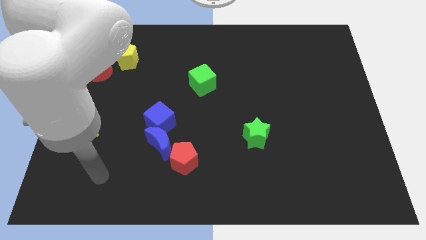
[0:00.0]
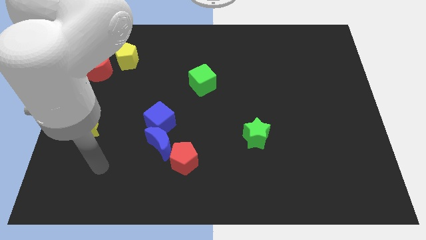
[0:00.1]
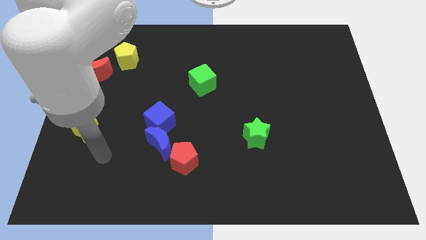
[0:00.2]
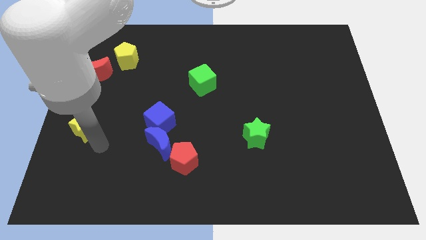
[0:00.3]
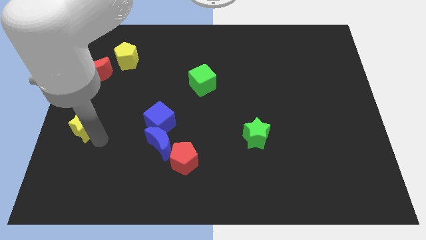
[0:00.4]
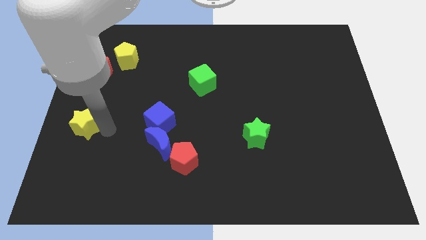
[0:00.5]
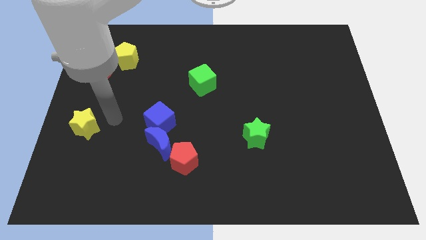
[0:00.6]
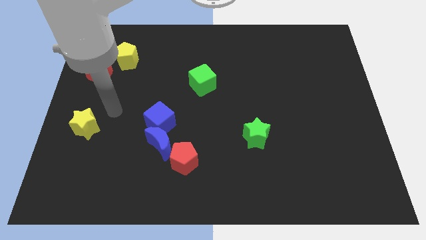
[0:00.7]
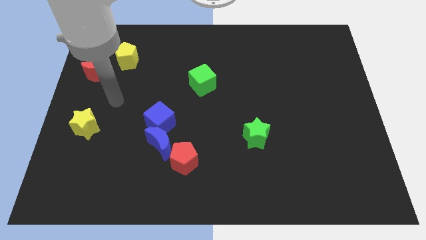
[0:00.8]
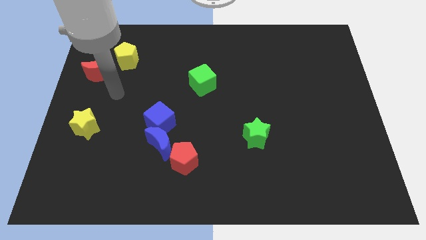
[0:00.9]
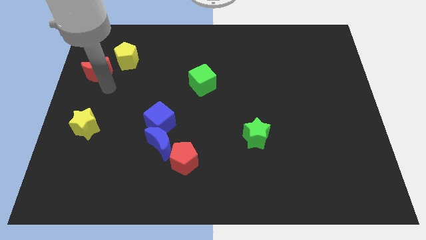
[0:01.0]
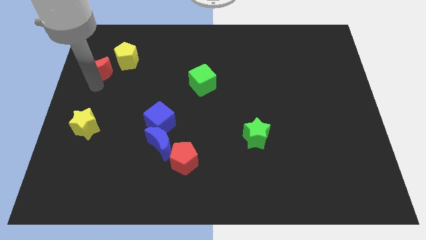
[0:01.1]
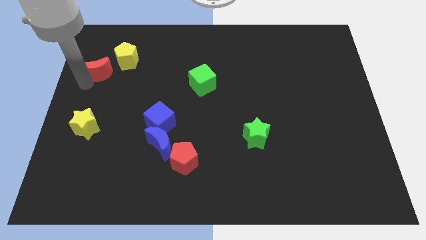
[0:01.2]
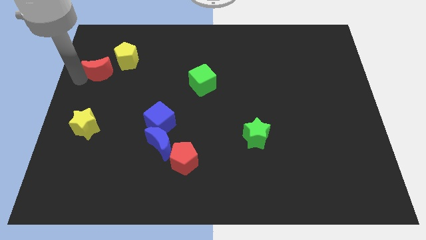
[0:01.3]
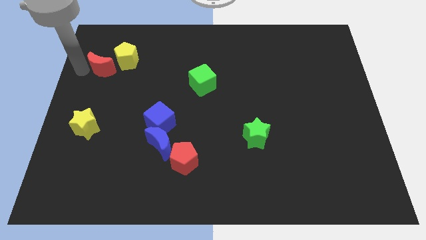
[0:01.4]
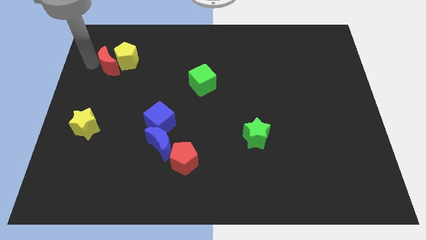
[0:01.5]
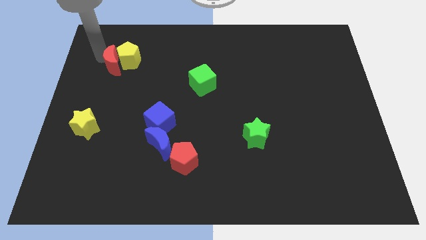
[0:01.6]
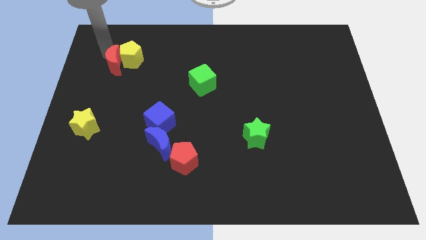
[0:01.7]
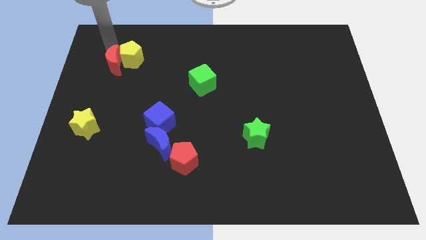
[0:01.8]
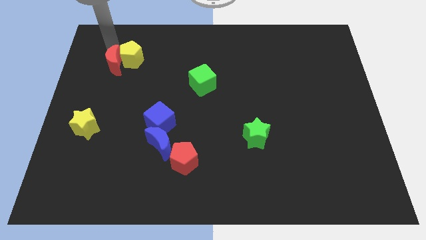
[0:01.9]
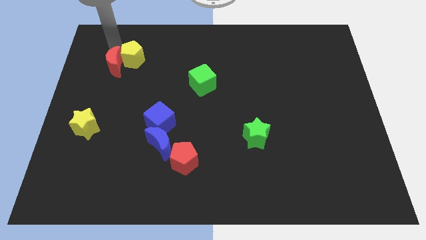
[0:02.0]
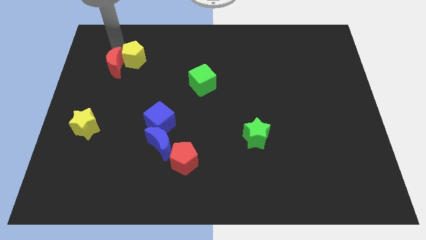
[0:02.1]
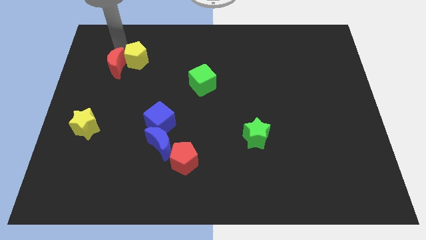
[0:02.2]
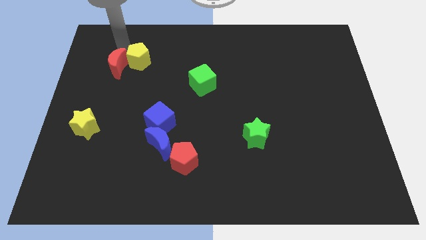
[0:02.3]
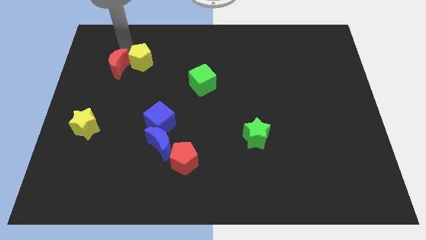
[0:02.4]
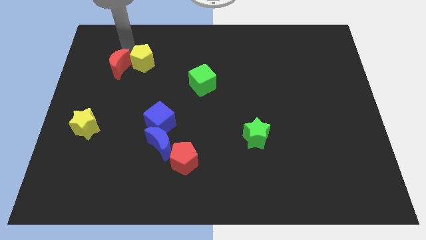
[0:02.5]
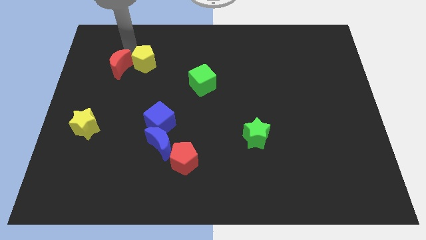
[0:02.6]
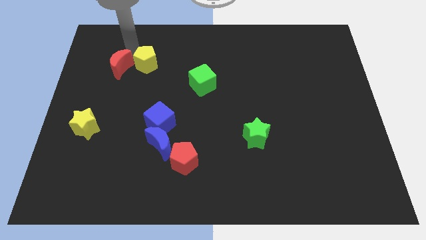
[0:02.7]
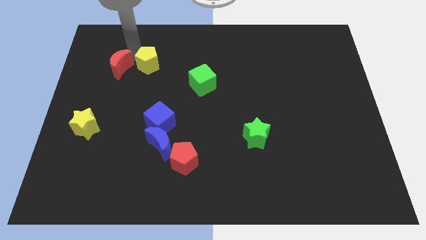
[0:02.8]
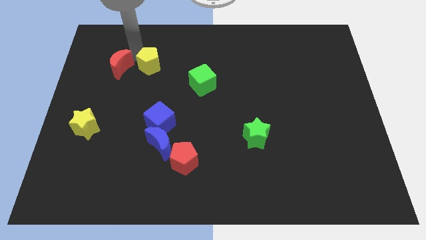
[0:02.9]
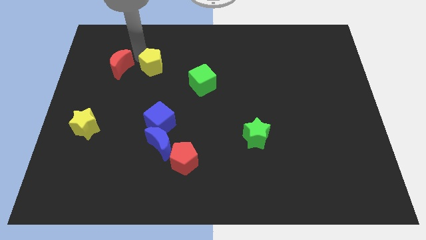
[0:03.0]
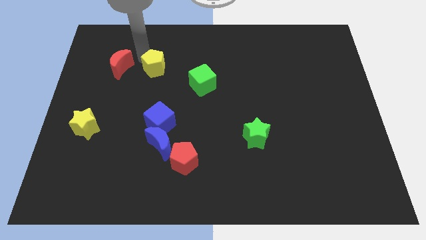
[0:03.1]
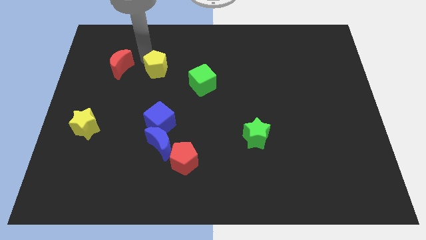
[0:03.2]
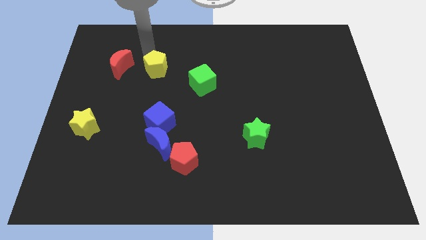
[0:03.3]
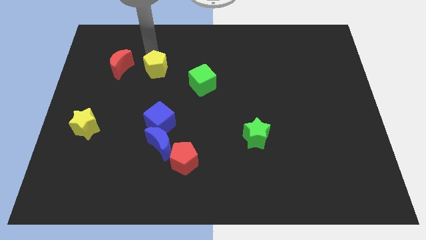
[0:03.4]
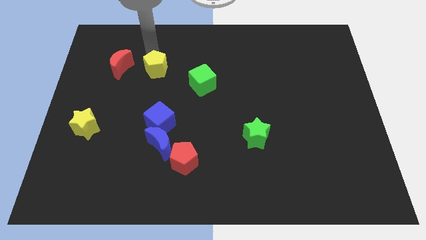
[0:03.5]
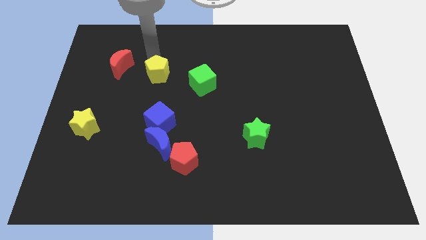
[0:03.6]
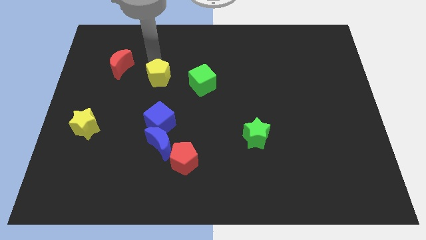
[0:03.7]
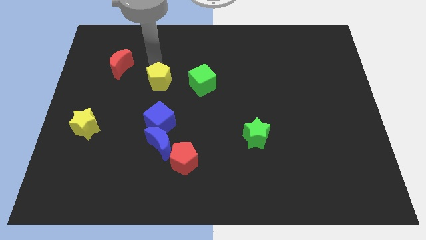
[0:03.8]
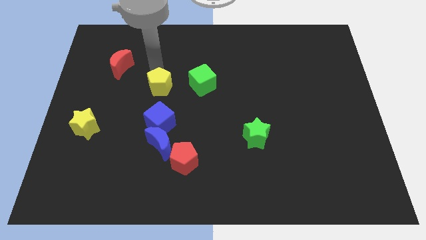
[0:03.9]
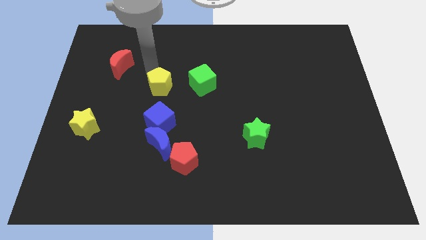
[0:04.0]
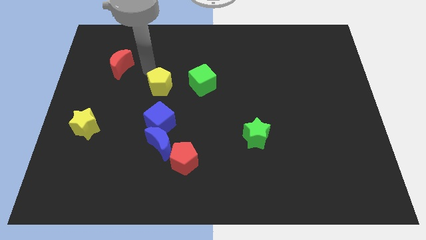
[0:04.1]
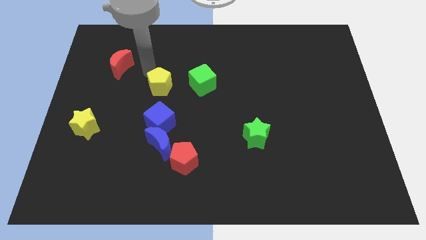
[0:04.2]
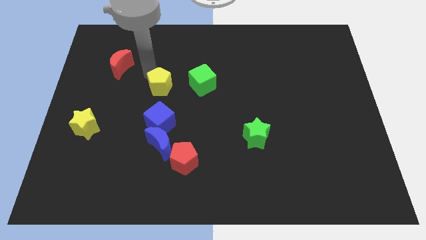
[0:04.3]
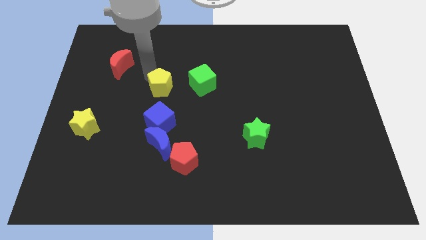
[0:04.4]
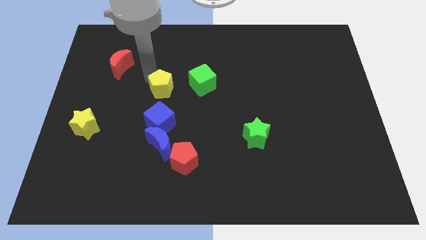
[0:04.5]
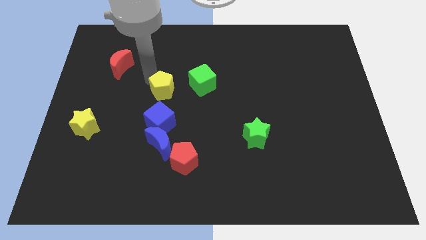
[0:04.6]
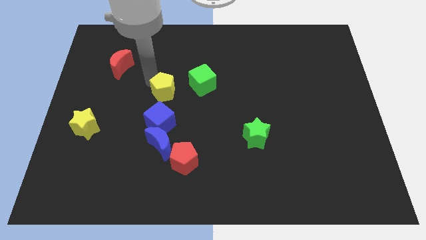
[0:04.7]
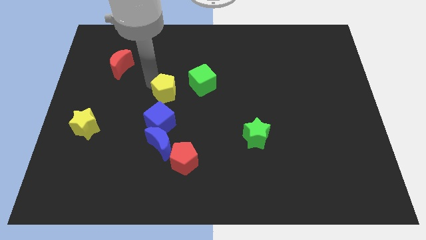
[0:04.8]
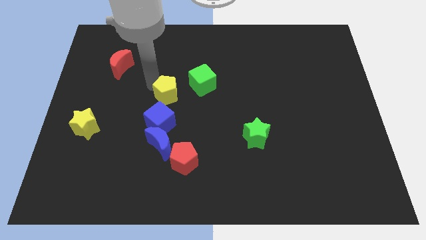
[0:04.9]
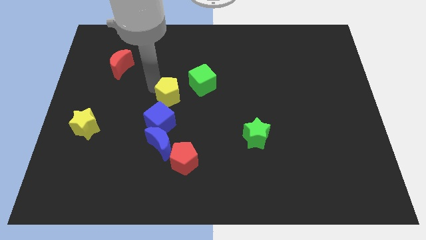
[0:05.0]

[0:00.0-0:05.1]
slide the yellow pentagon to the top right side of the blue cube

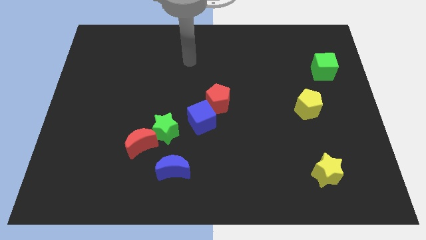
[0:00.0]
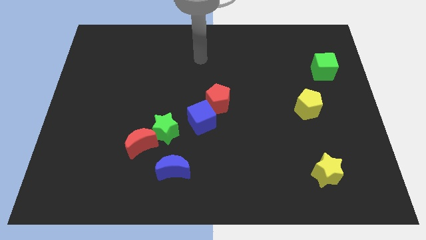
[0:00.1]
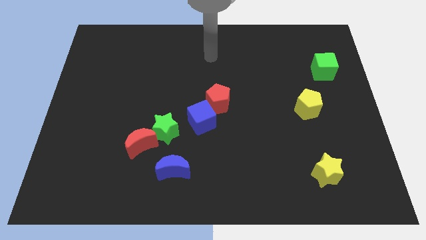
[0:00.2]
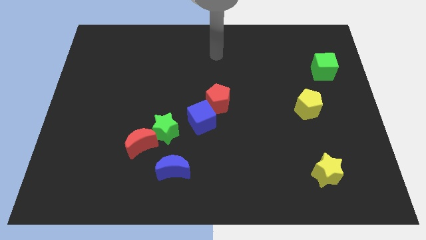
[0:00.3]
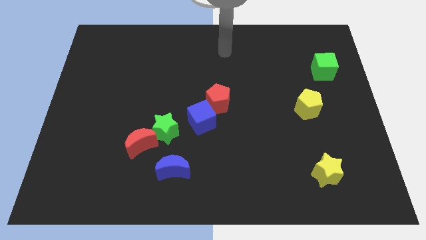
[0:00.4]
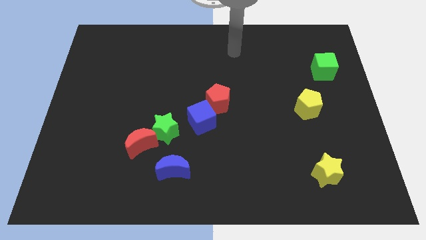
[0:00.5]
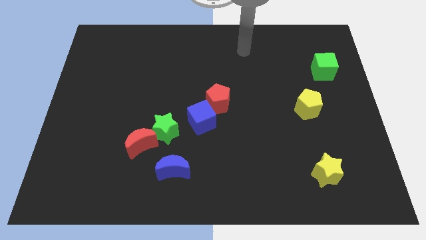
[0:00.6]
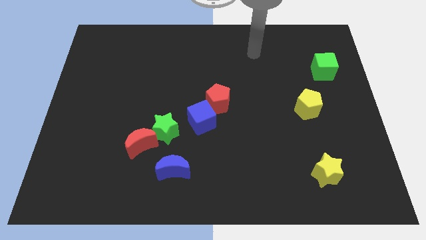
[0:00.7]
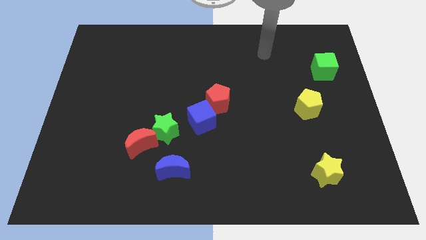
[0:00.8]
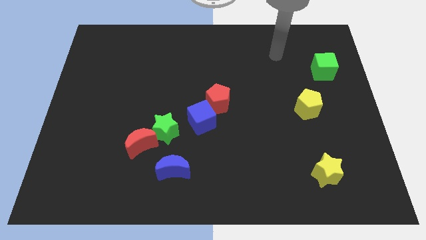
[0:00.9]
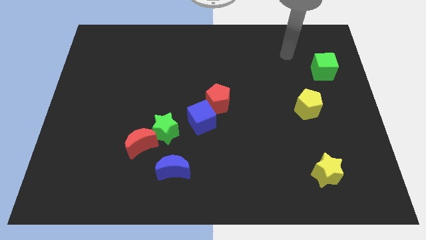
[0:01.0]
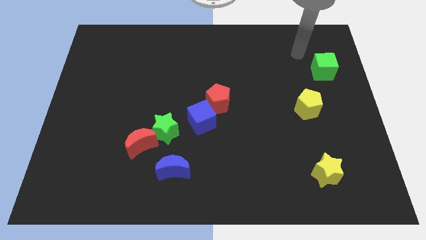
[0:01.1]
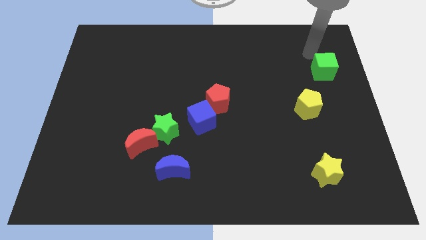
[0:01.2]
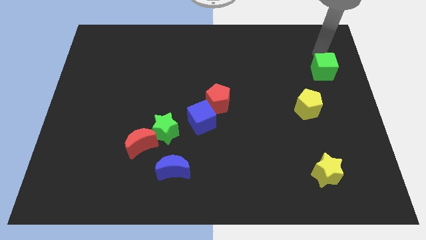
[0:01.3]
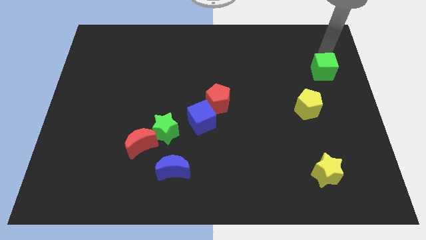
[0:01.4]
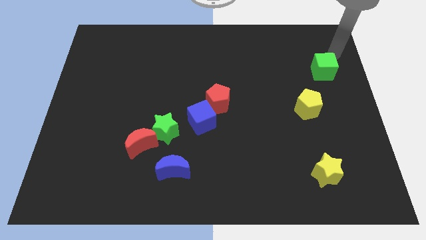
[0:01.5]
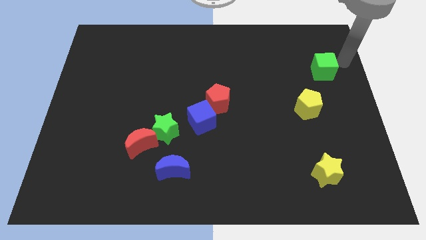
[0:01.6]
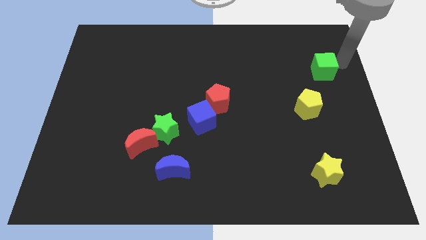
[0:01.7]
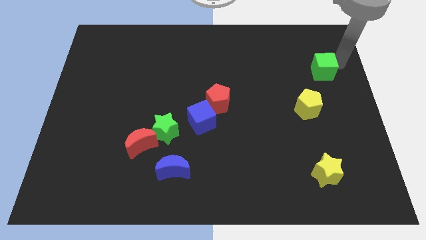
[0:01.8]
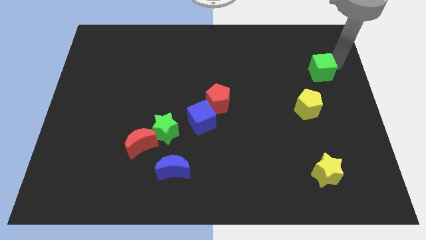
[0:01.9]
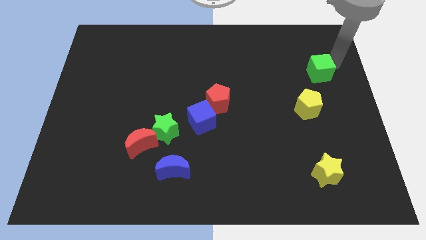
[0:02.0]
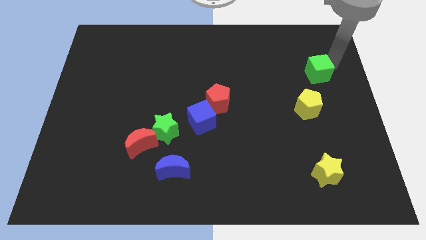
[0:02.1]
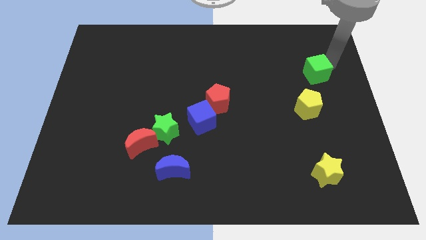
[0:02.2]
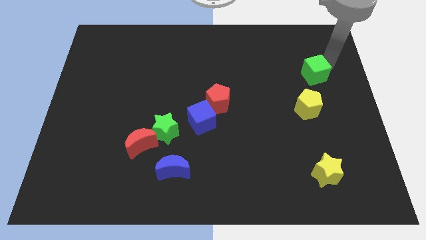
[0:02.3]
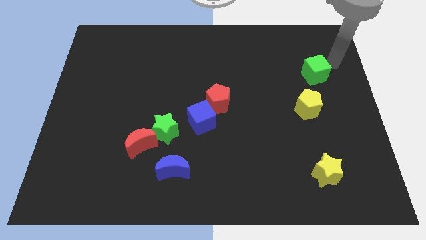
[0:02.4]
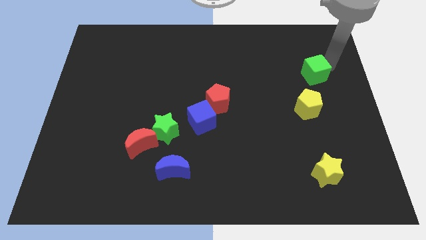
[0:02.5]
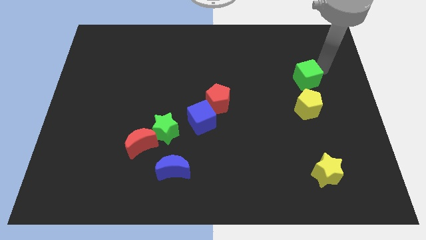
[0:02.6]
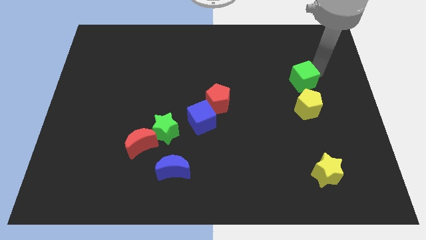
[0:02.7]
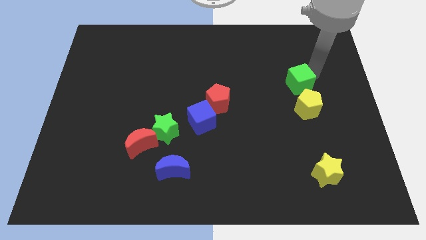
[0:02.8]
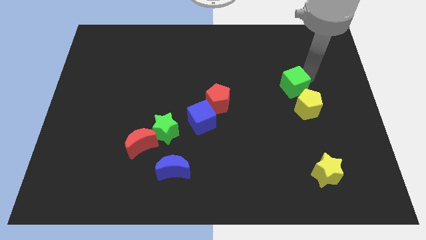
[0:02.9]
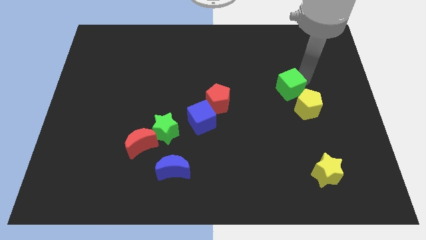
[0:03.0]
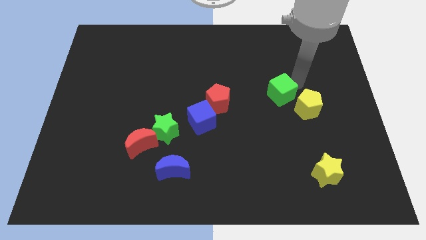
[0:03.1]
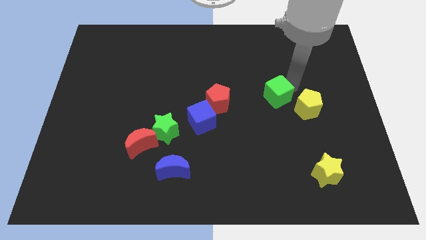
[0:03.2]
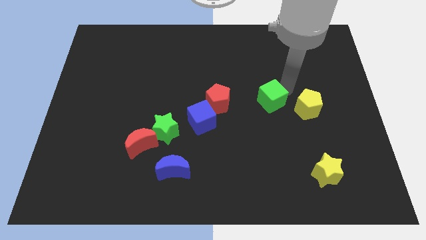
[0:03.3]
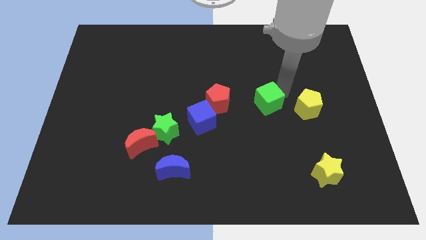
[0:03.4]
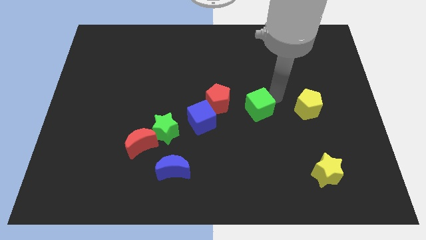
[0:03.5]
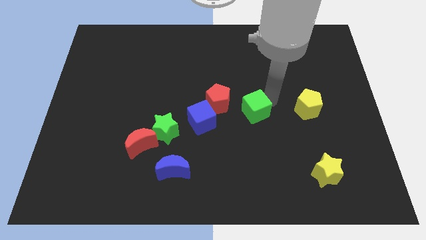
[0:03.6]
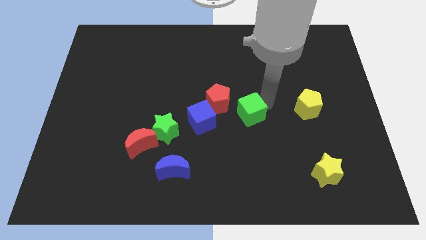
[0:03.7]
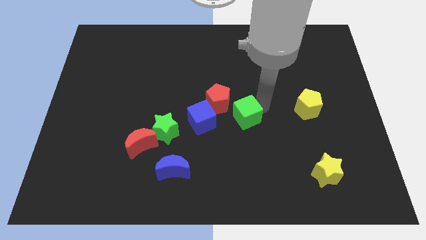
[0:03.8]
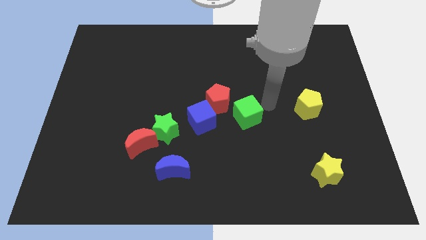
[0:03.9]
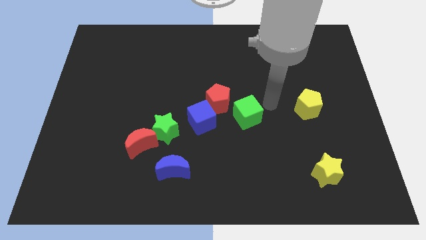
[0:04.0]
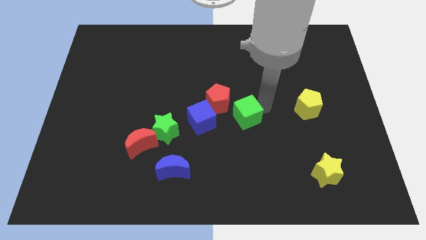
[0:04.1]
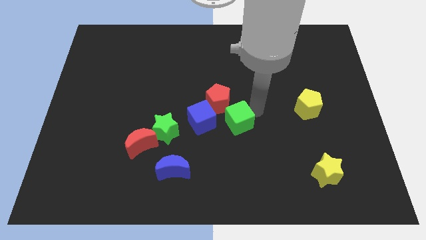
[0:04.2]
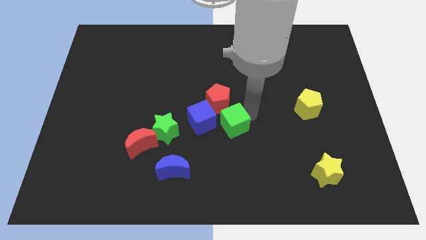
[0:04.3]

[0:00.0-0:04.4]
push the green cube right of the green star
